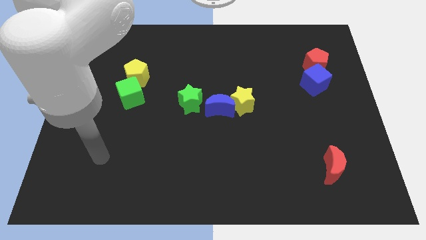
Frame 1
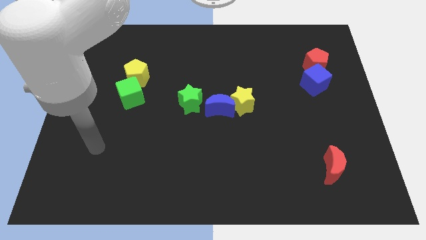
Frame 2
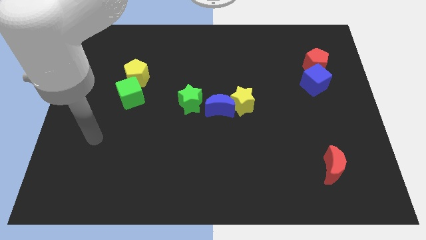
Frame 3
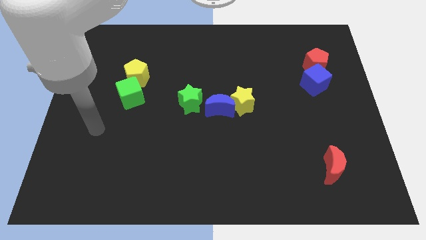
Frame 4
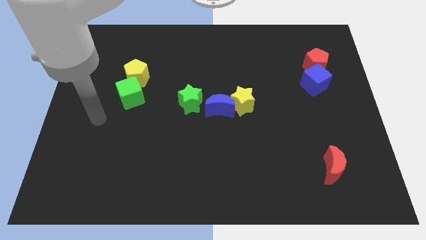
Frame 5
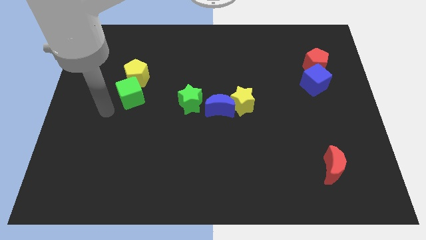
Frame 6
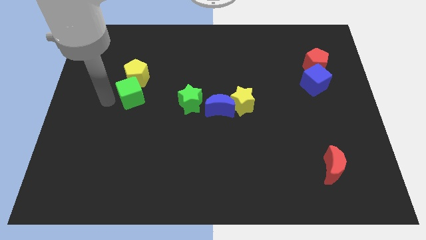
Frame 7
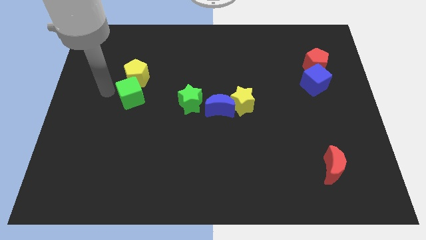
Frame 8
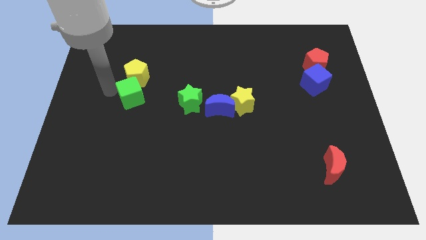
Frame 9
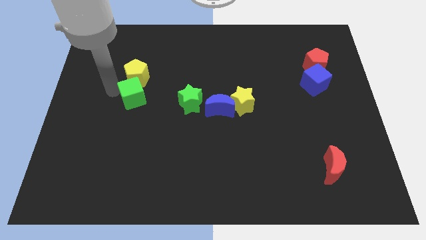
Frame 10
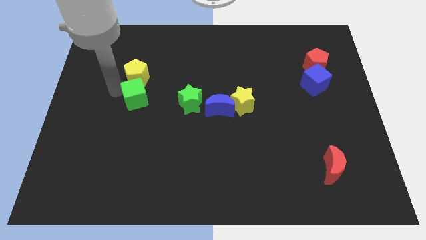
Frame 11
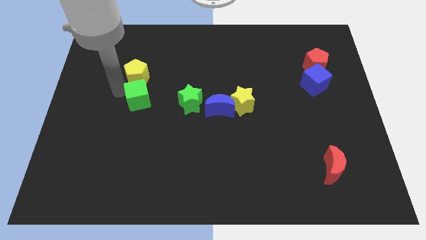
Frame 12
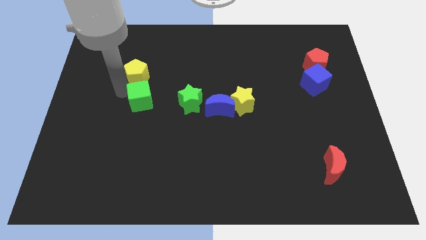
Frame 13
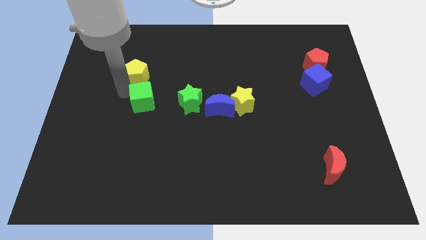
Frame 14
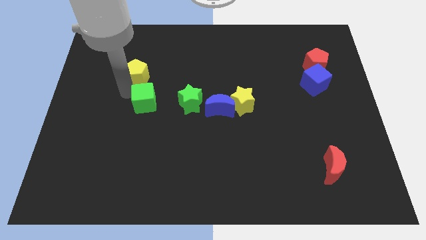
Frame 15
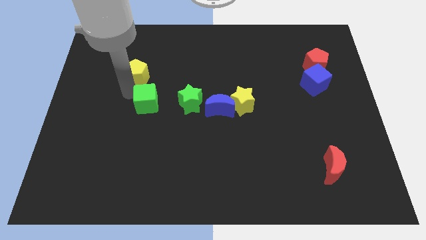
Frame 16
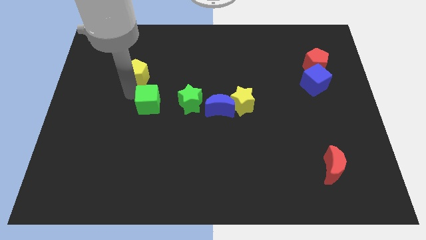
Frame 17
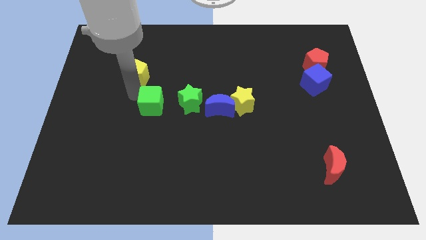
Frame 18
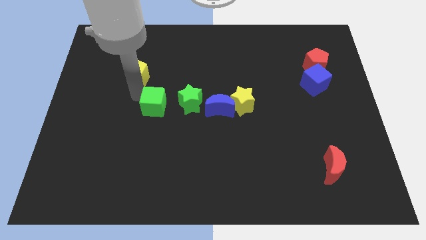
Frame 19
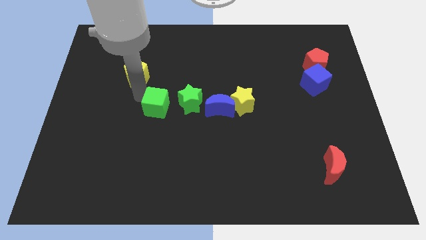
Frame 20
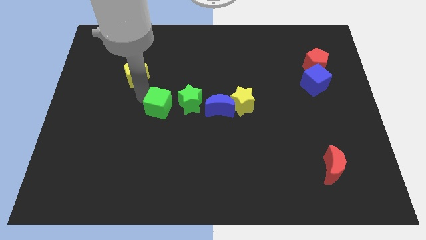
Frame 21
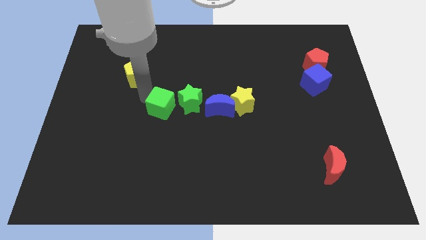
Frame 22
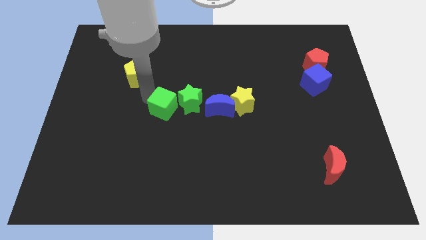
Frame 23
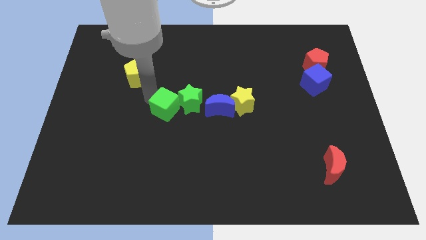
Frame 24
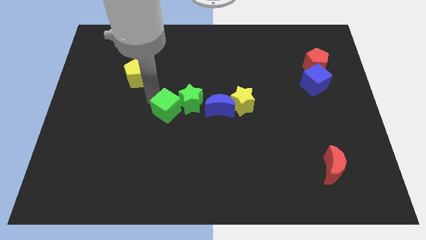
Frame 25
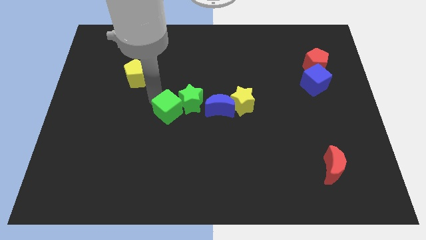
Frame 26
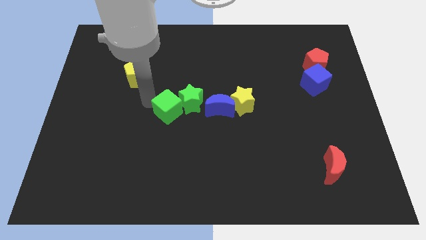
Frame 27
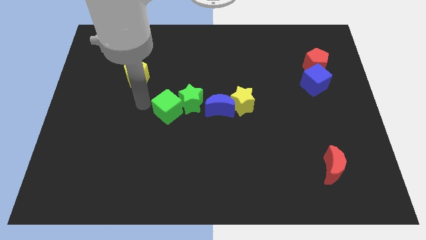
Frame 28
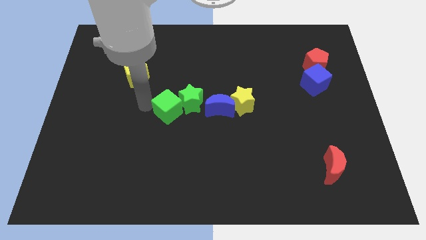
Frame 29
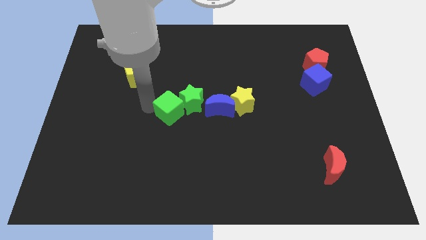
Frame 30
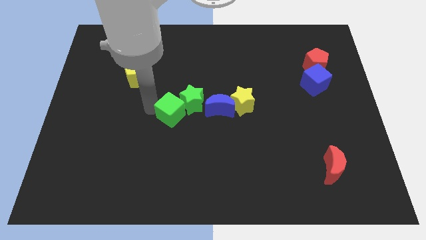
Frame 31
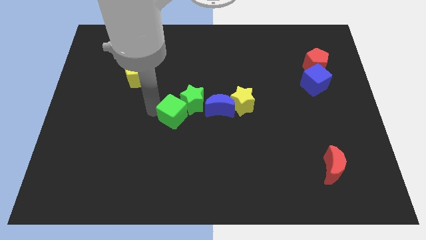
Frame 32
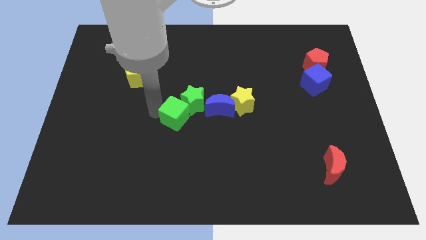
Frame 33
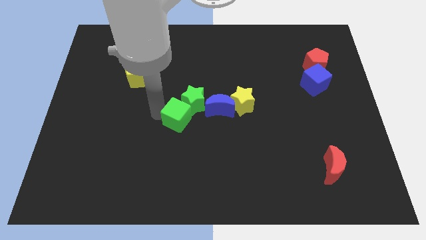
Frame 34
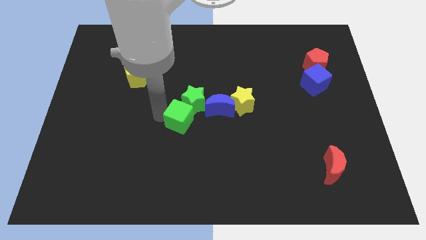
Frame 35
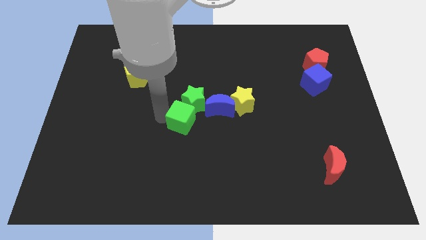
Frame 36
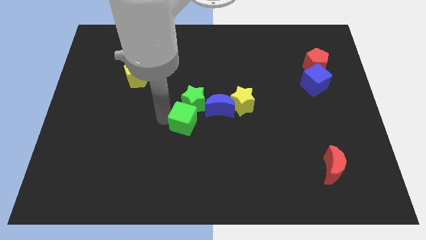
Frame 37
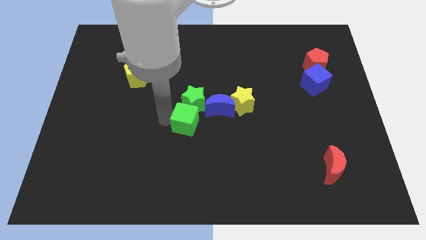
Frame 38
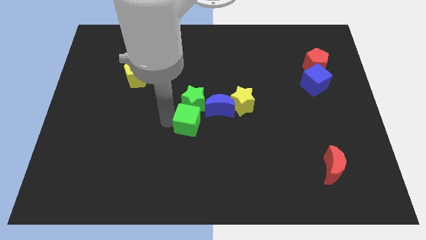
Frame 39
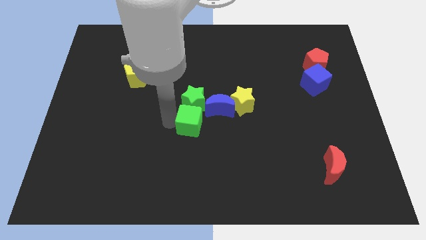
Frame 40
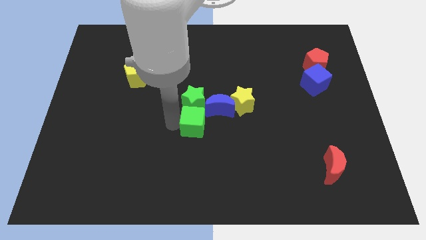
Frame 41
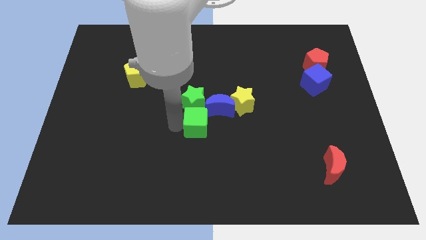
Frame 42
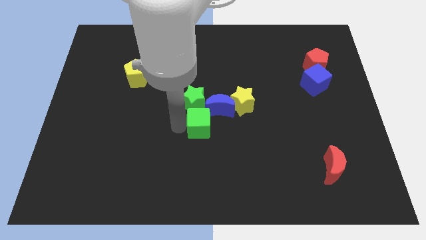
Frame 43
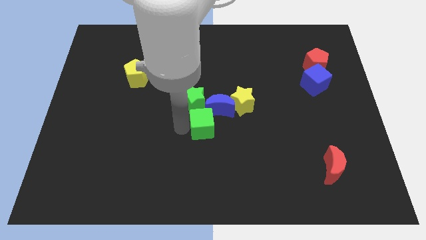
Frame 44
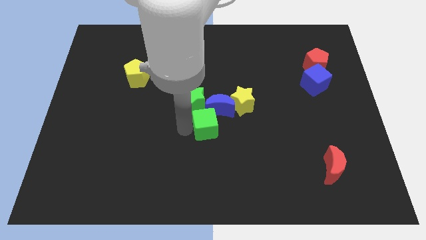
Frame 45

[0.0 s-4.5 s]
slide the green cube next to the blue moon

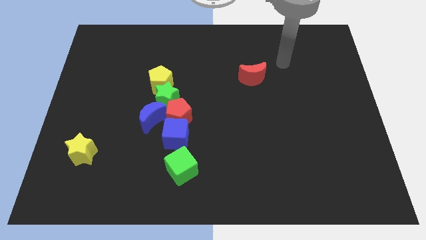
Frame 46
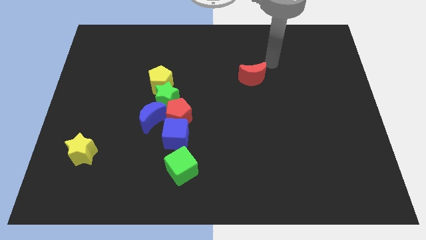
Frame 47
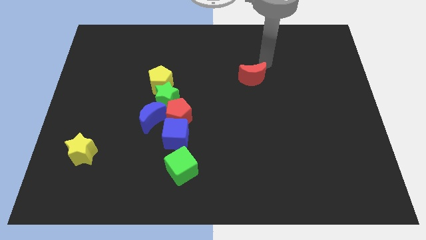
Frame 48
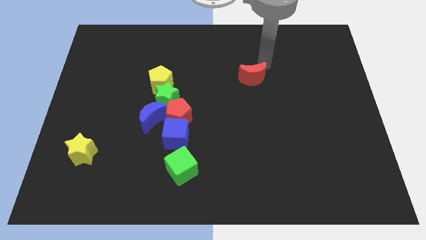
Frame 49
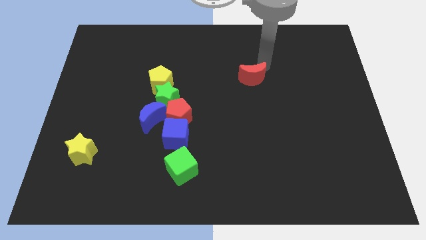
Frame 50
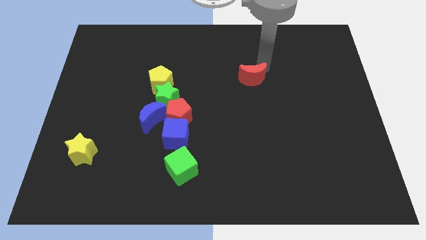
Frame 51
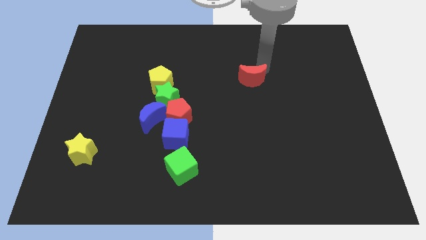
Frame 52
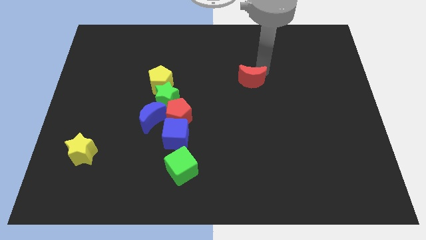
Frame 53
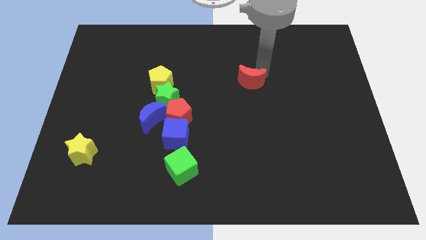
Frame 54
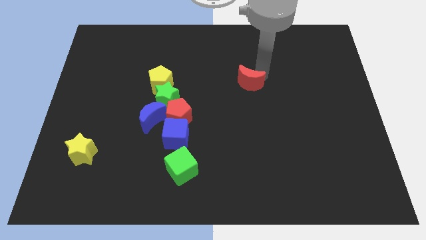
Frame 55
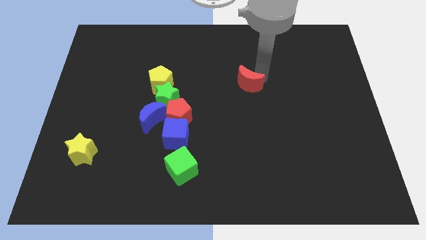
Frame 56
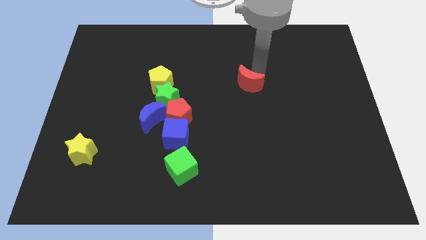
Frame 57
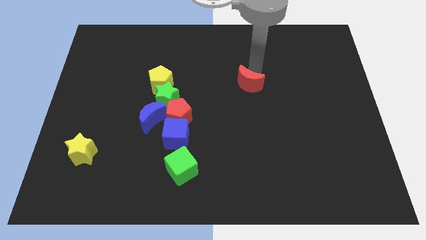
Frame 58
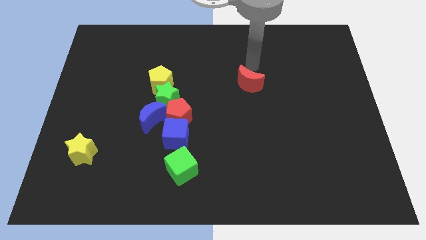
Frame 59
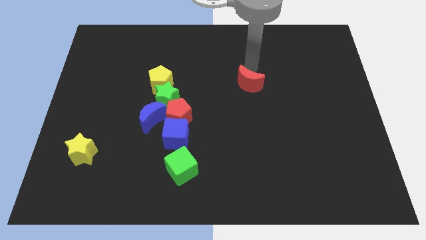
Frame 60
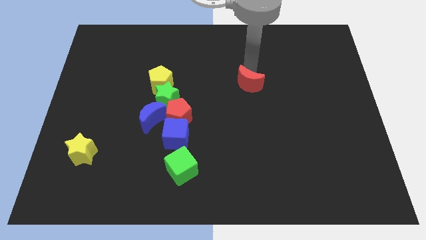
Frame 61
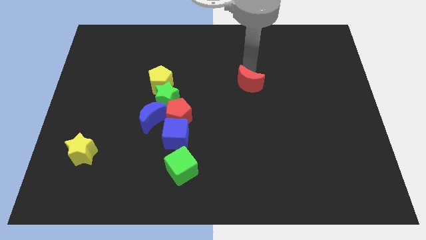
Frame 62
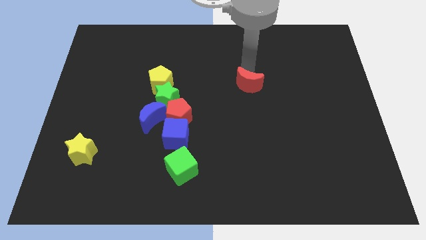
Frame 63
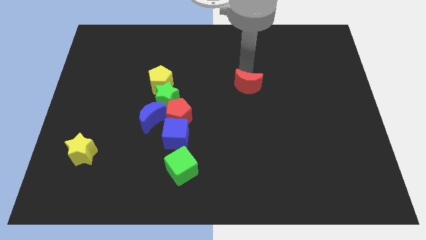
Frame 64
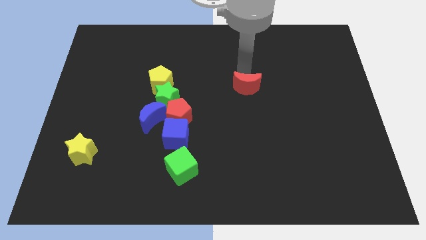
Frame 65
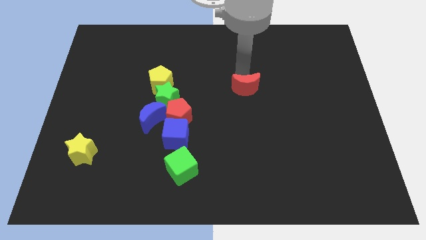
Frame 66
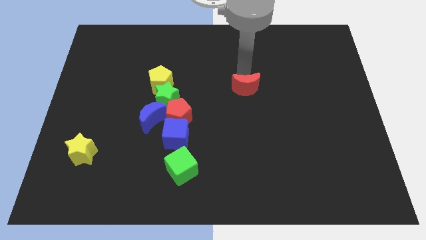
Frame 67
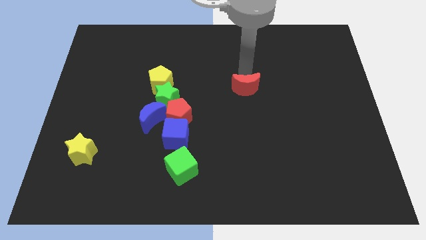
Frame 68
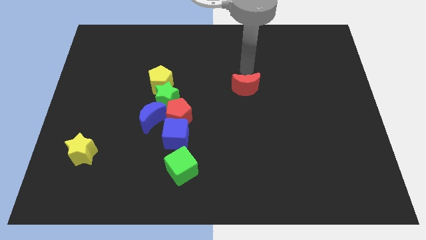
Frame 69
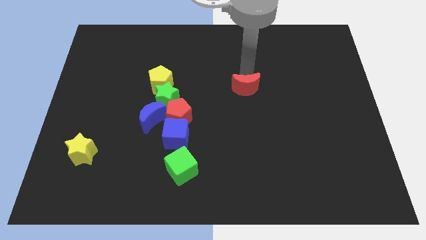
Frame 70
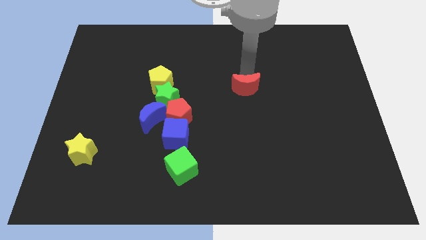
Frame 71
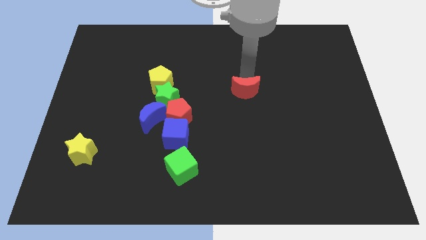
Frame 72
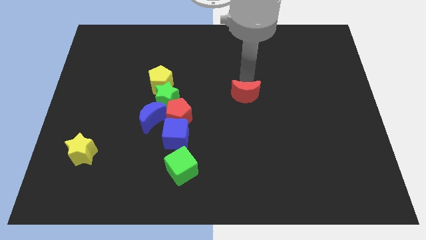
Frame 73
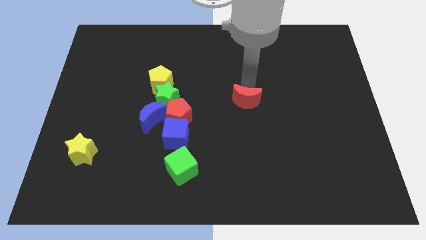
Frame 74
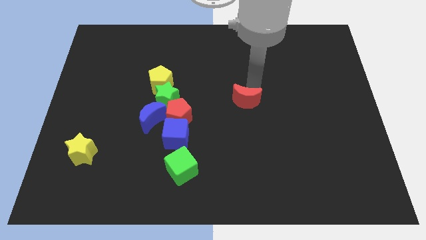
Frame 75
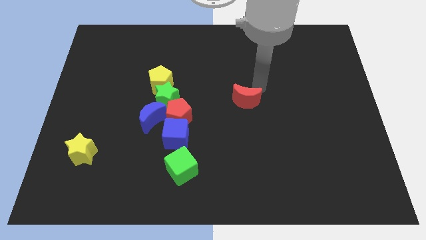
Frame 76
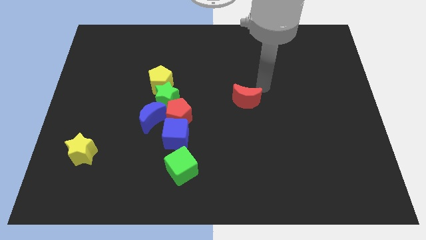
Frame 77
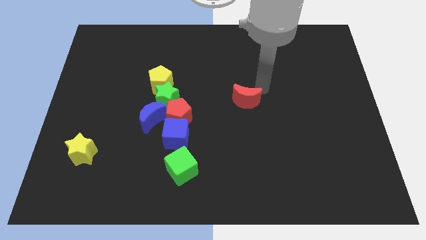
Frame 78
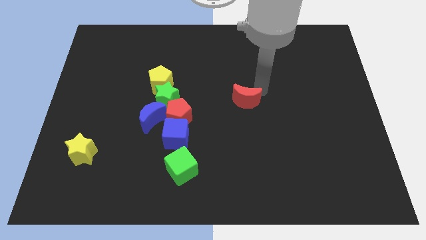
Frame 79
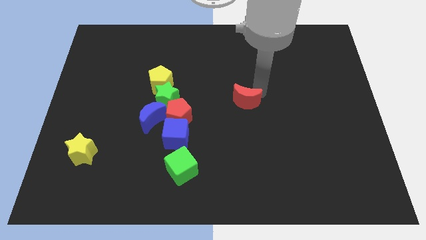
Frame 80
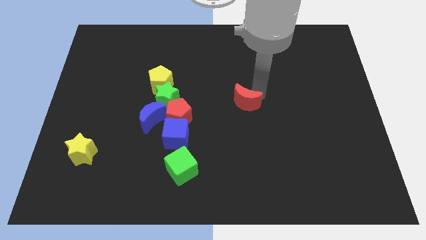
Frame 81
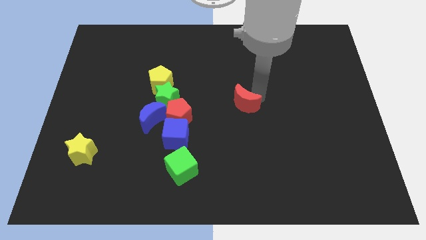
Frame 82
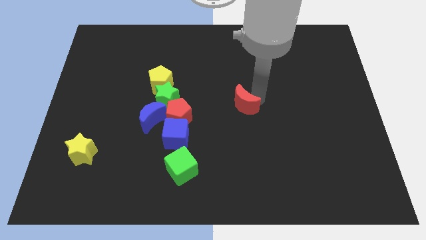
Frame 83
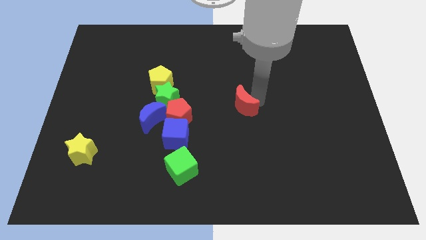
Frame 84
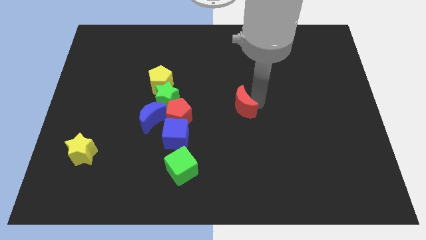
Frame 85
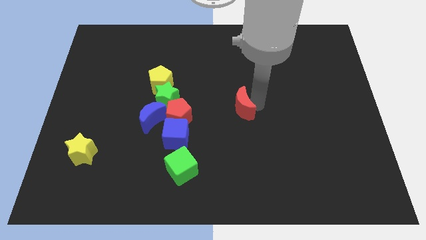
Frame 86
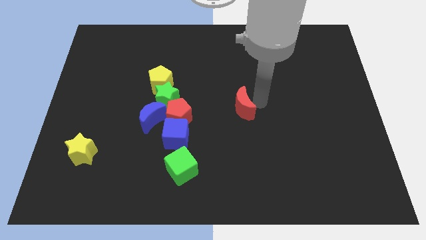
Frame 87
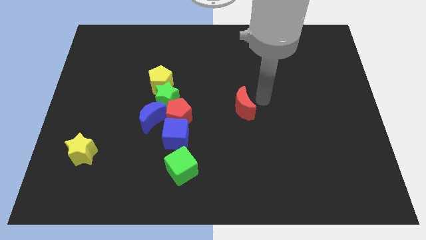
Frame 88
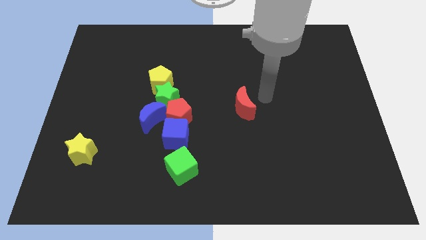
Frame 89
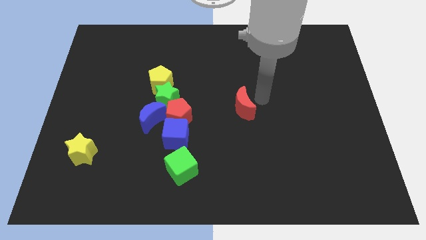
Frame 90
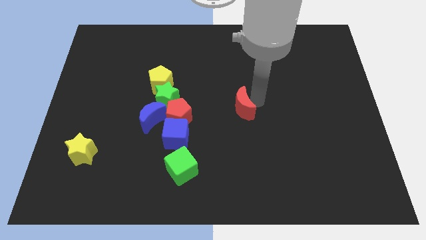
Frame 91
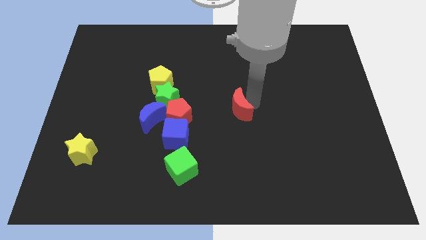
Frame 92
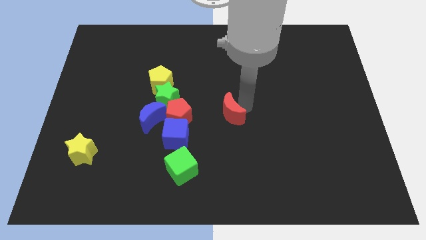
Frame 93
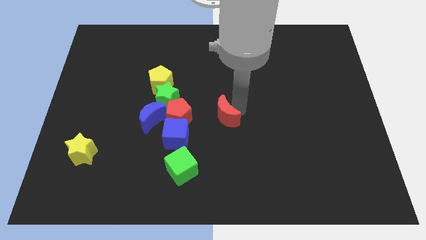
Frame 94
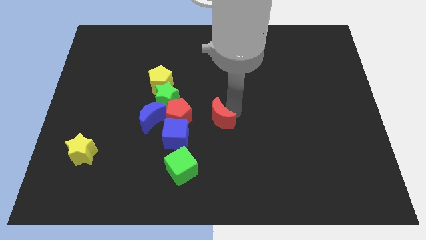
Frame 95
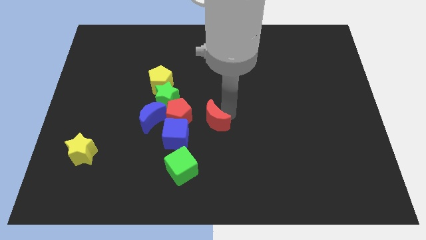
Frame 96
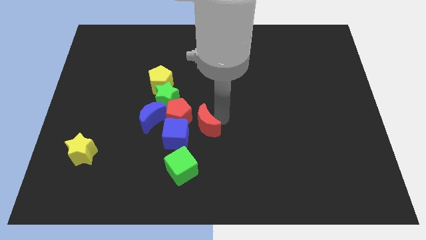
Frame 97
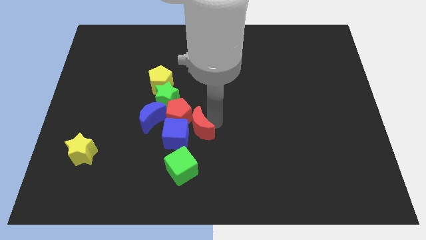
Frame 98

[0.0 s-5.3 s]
slide the red moon next to the blue cube
